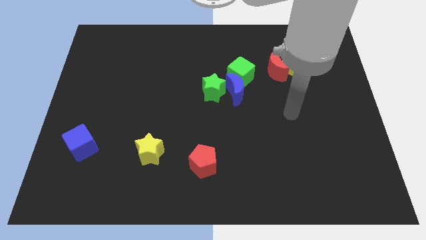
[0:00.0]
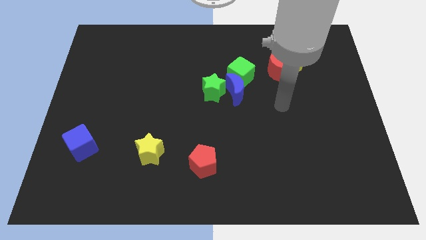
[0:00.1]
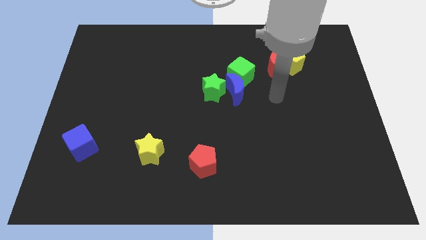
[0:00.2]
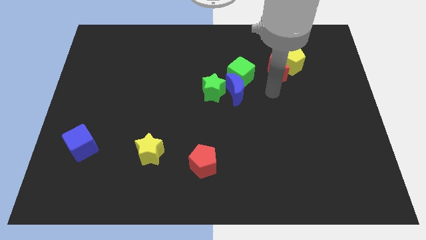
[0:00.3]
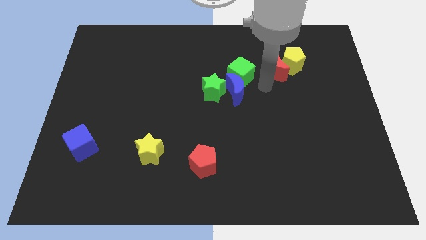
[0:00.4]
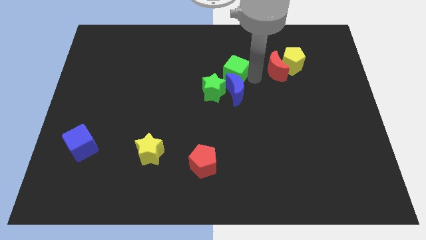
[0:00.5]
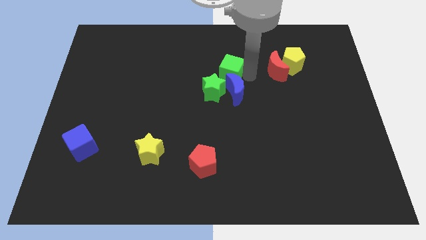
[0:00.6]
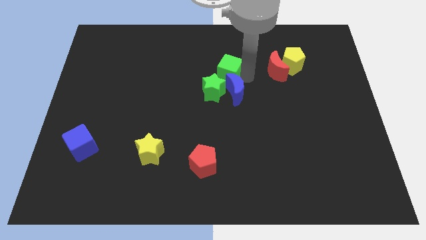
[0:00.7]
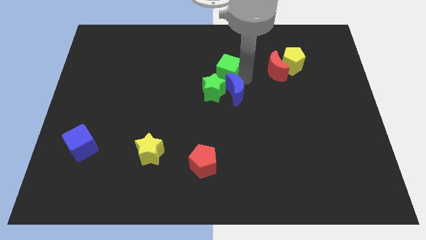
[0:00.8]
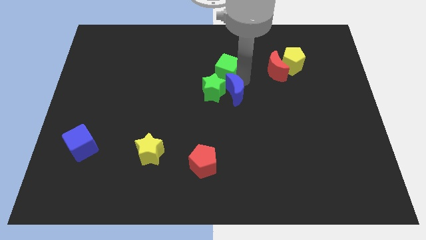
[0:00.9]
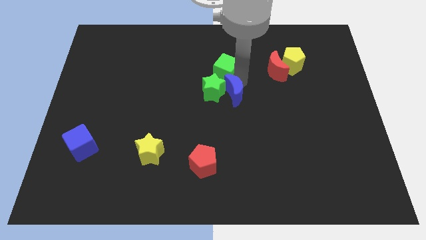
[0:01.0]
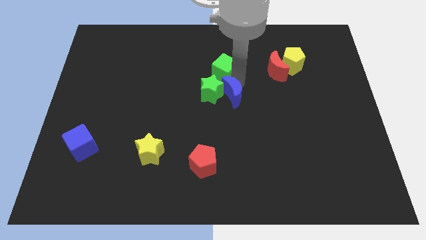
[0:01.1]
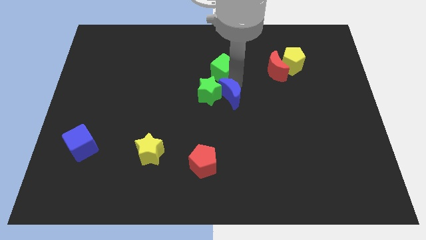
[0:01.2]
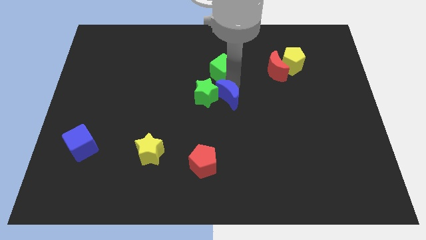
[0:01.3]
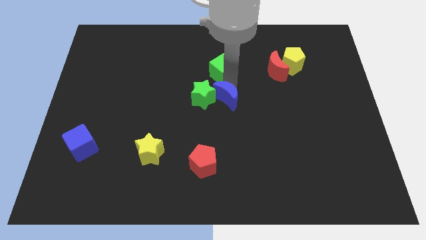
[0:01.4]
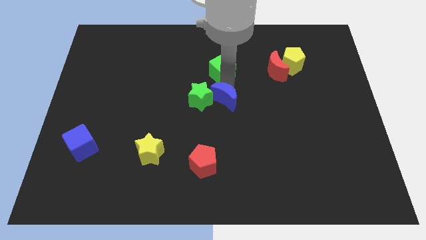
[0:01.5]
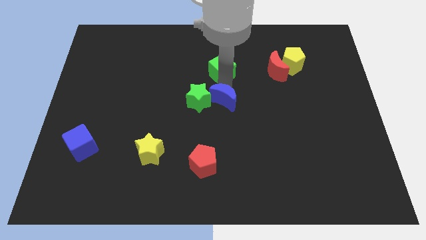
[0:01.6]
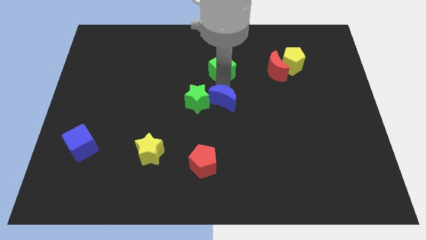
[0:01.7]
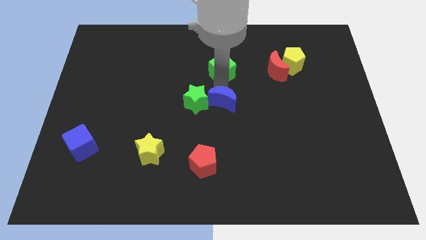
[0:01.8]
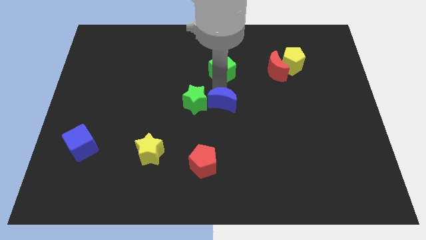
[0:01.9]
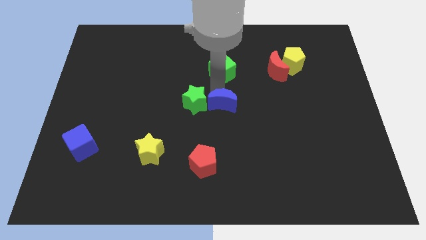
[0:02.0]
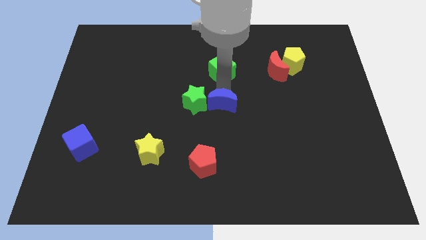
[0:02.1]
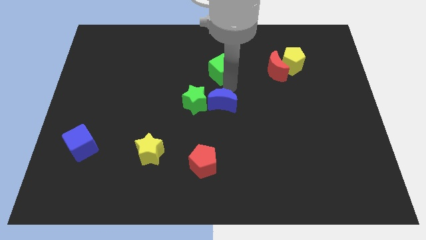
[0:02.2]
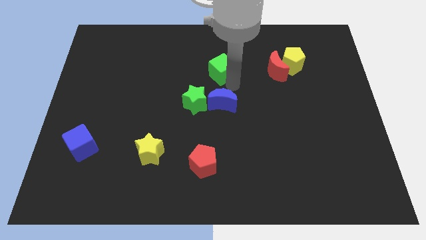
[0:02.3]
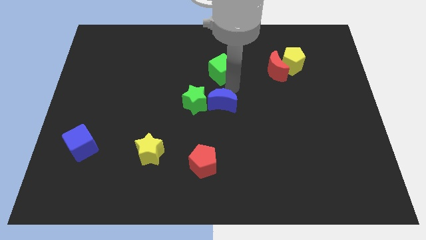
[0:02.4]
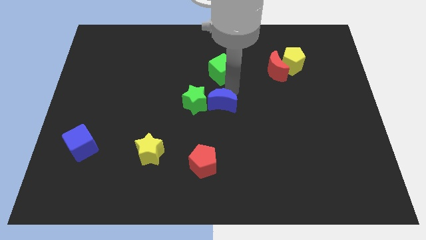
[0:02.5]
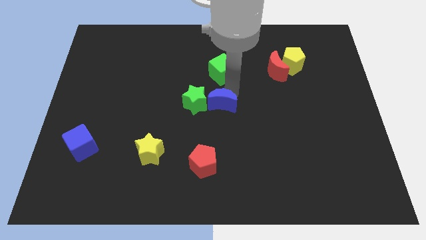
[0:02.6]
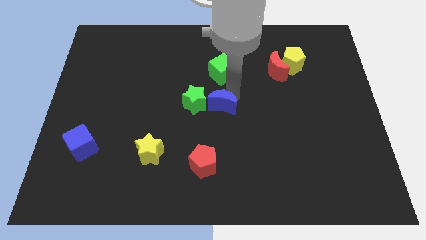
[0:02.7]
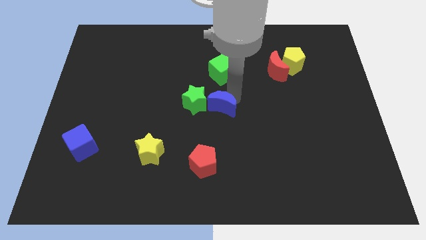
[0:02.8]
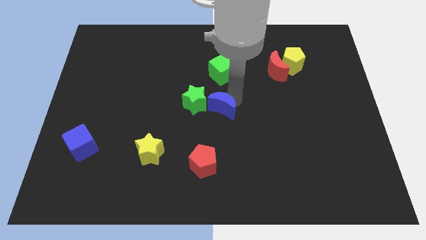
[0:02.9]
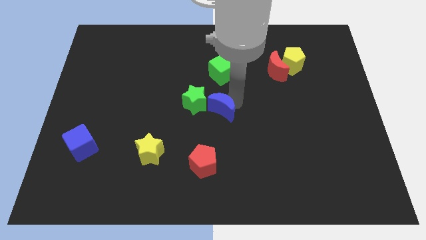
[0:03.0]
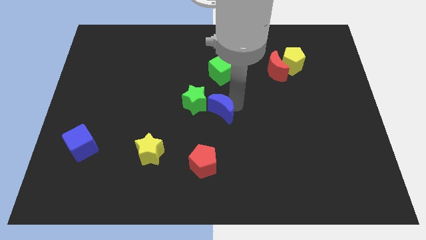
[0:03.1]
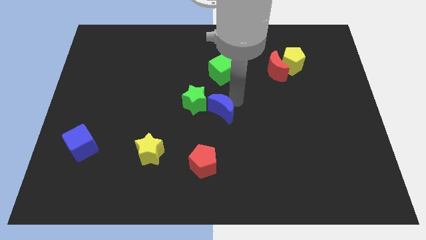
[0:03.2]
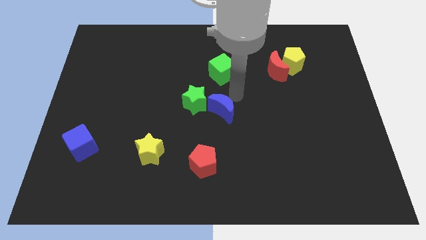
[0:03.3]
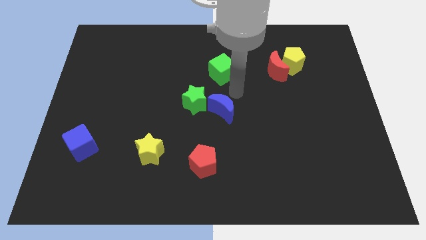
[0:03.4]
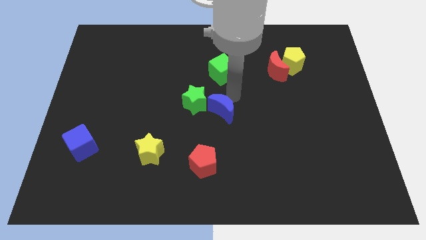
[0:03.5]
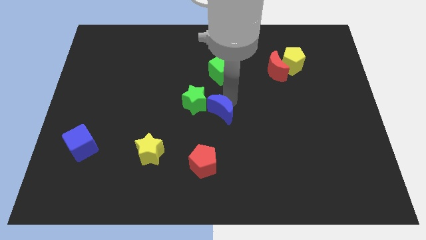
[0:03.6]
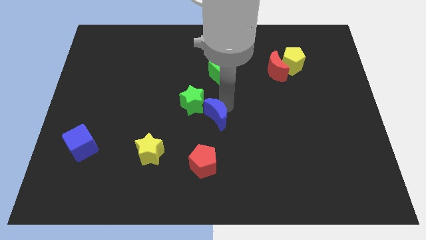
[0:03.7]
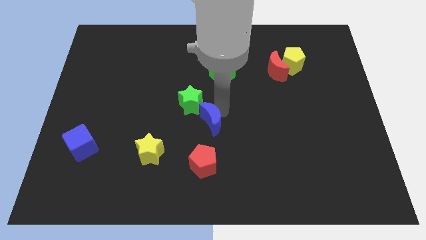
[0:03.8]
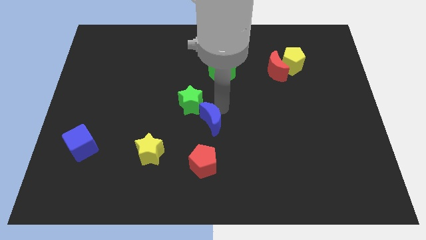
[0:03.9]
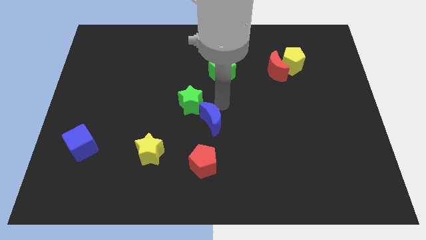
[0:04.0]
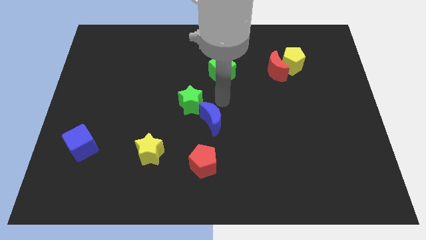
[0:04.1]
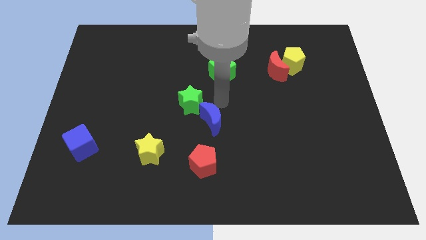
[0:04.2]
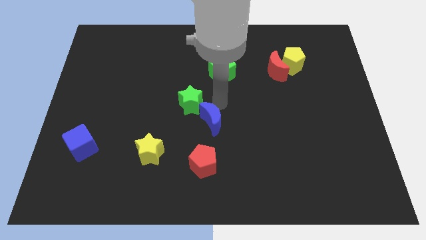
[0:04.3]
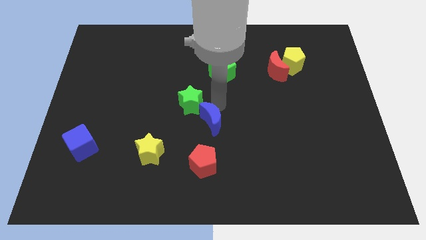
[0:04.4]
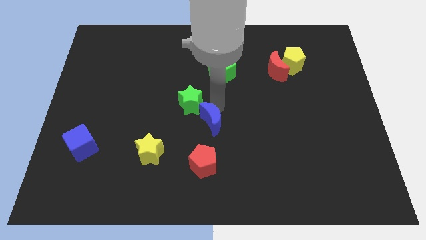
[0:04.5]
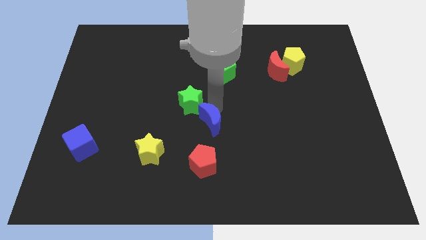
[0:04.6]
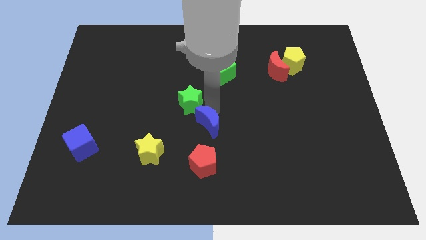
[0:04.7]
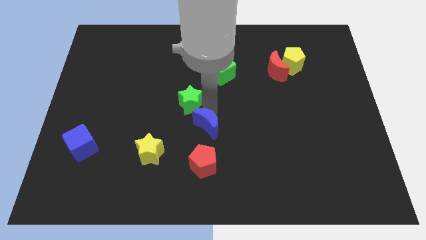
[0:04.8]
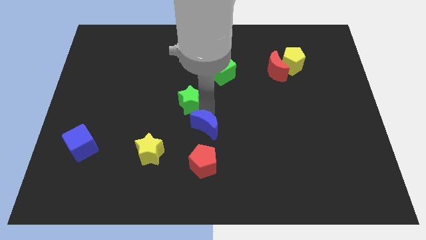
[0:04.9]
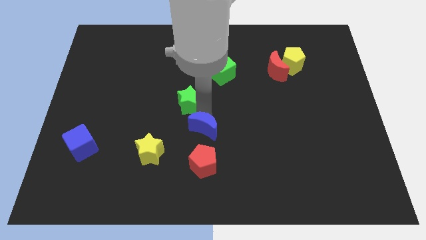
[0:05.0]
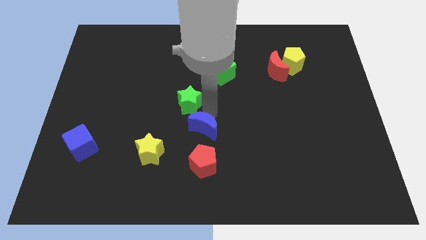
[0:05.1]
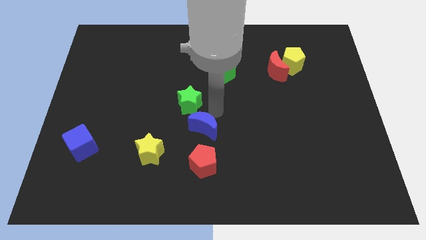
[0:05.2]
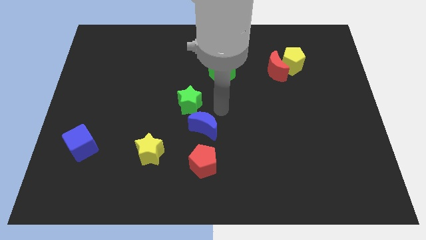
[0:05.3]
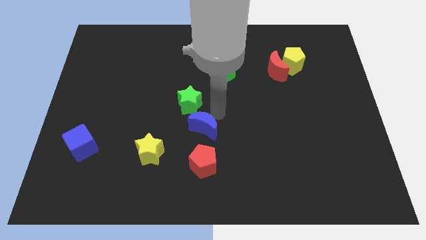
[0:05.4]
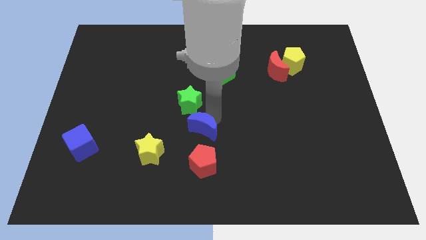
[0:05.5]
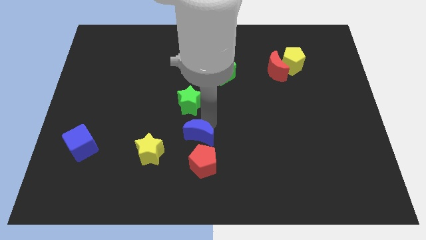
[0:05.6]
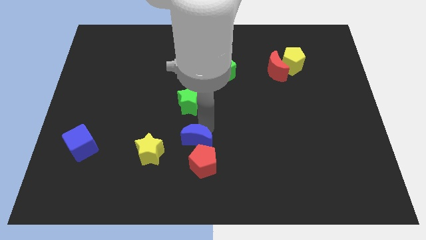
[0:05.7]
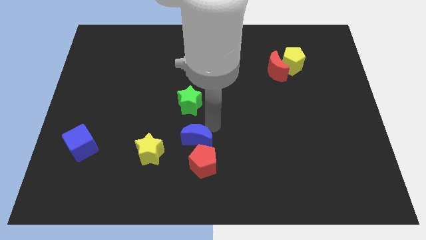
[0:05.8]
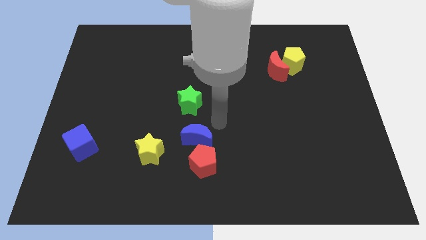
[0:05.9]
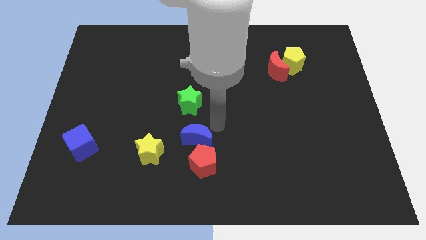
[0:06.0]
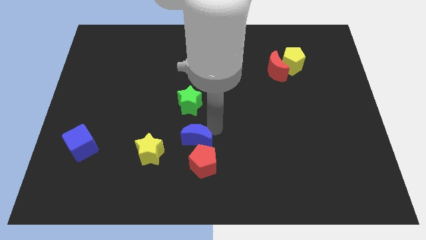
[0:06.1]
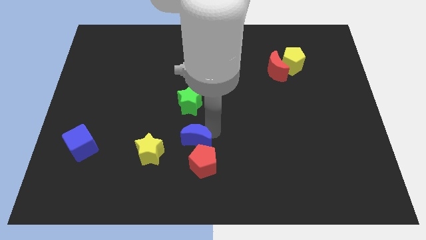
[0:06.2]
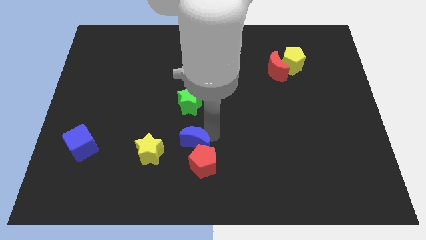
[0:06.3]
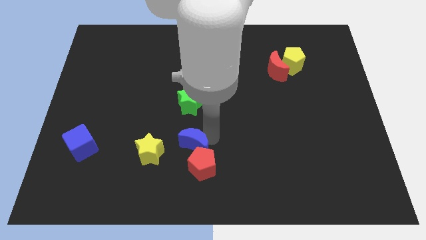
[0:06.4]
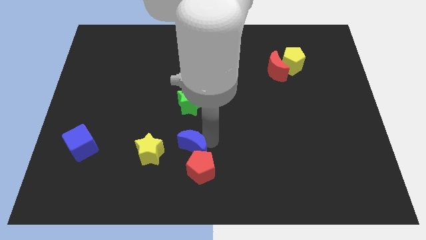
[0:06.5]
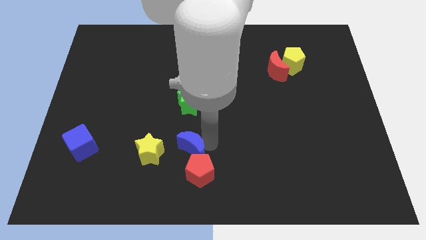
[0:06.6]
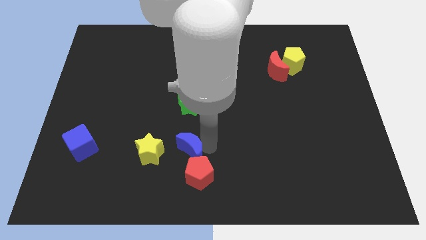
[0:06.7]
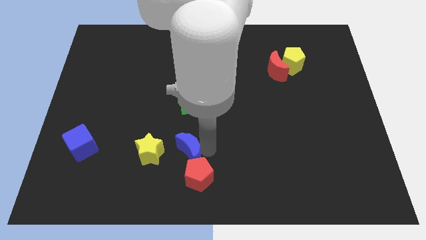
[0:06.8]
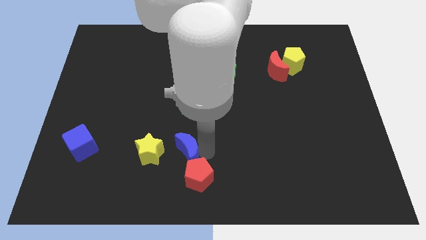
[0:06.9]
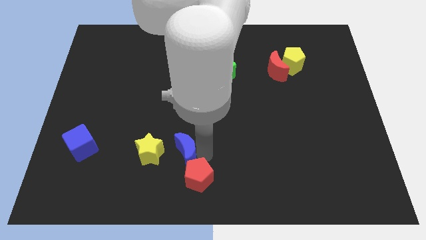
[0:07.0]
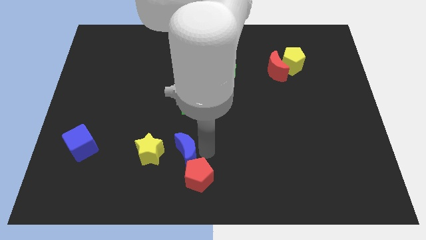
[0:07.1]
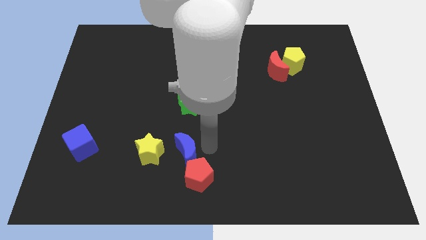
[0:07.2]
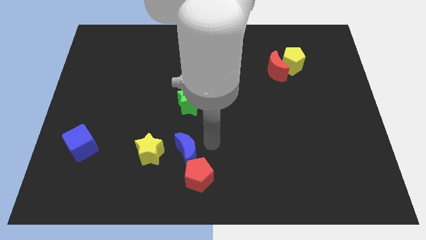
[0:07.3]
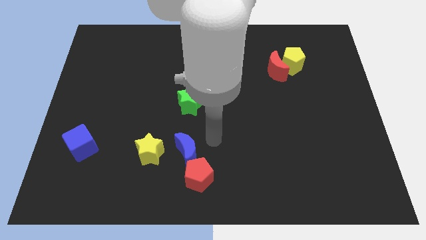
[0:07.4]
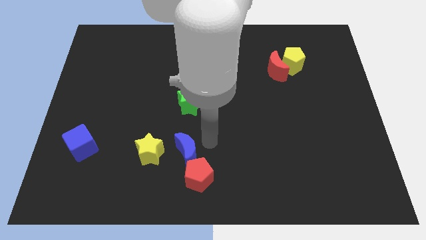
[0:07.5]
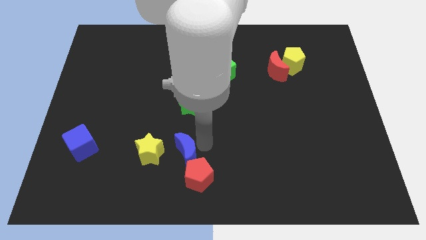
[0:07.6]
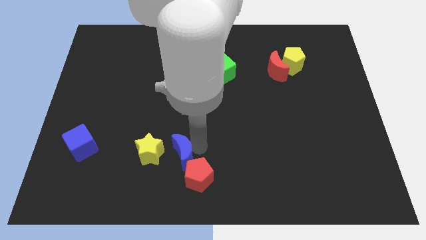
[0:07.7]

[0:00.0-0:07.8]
slide the blue moon downwards and to the left

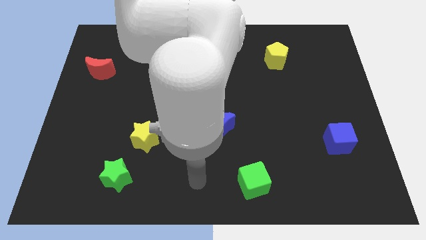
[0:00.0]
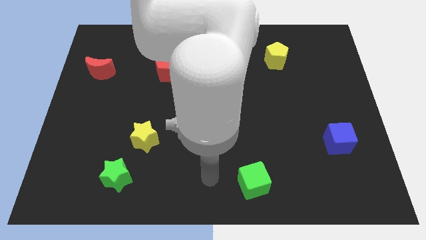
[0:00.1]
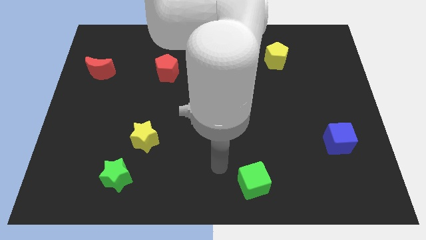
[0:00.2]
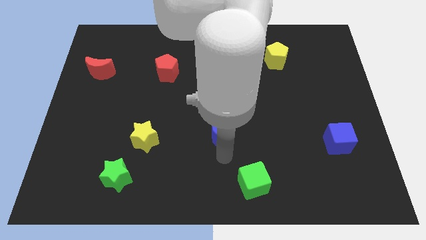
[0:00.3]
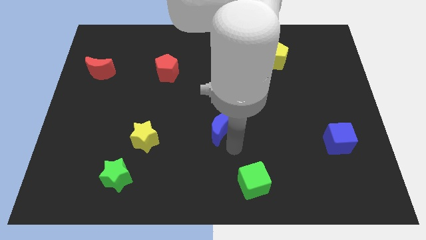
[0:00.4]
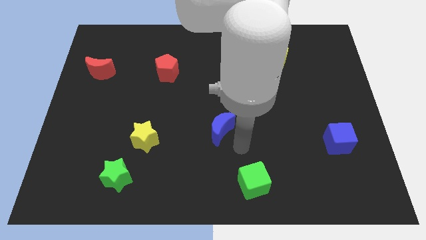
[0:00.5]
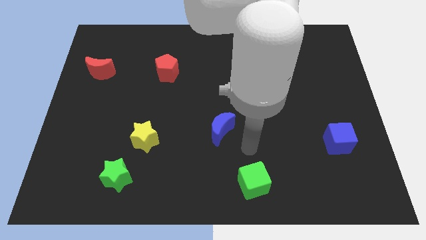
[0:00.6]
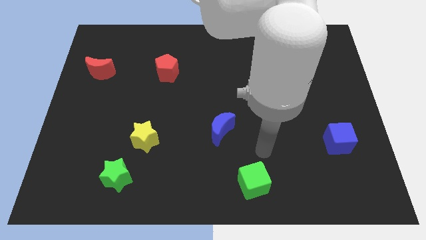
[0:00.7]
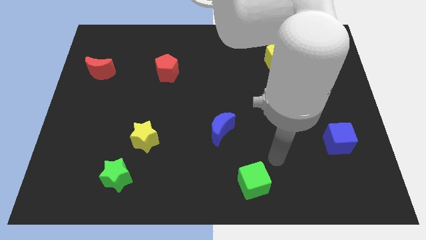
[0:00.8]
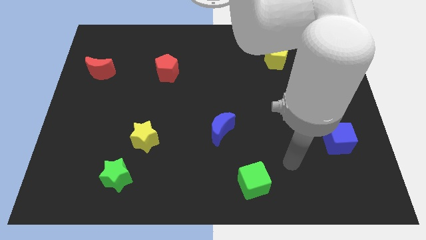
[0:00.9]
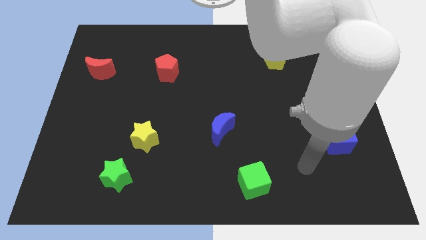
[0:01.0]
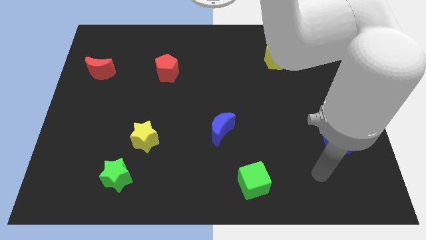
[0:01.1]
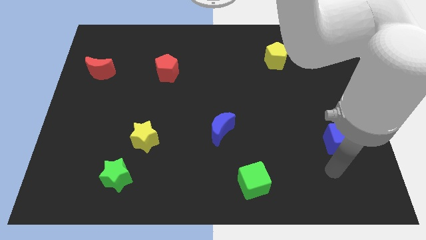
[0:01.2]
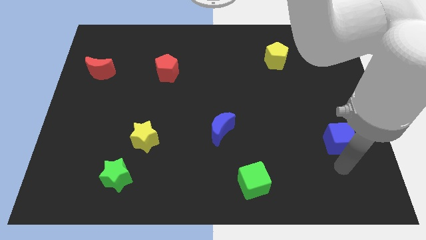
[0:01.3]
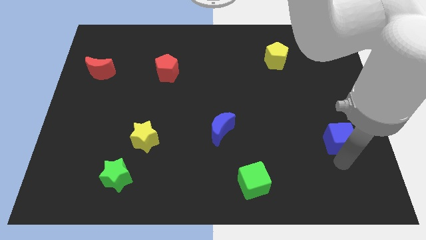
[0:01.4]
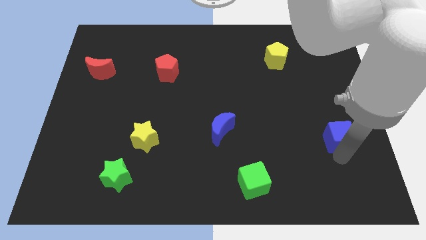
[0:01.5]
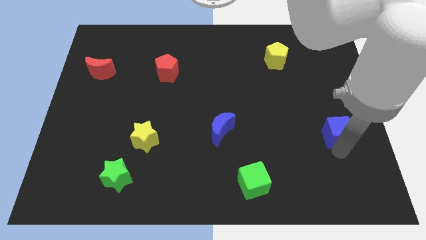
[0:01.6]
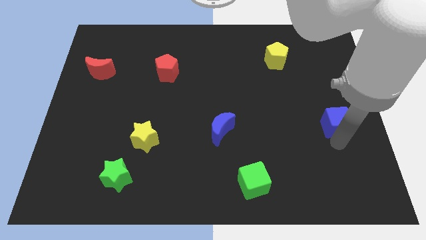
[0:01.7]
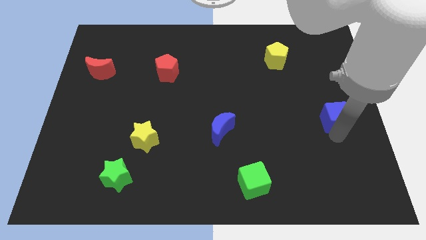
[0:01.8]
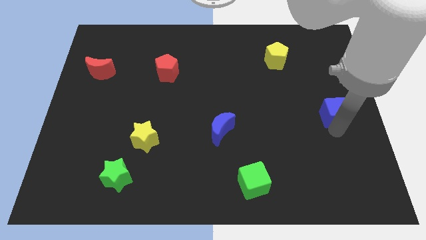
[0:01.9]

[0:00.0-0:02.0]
move the blue cube upwards slightly
